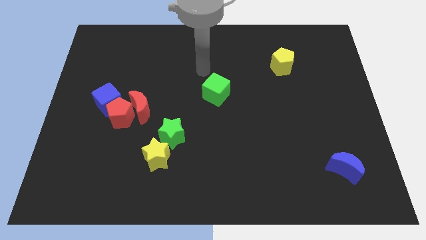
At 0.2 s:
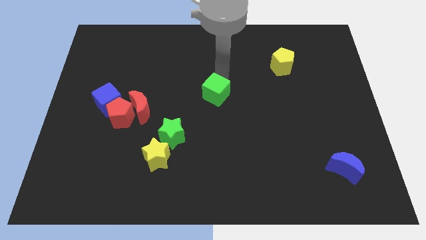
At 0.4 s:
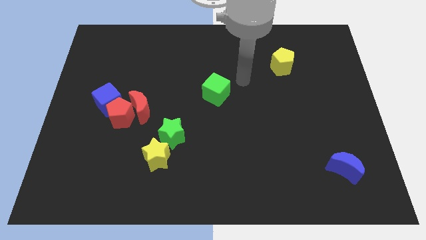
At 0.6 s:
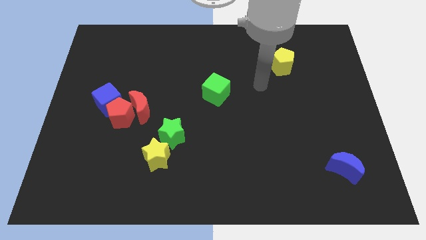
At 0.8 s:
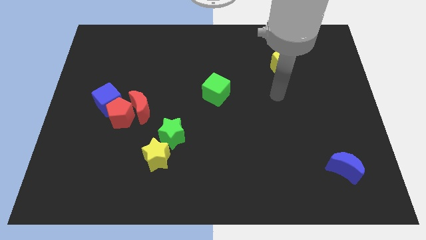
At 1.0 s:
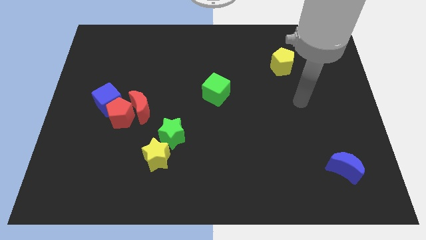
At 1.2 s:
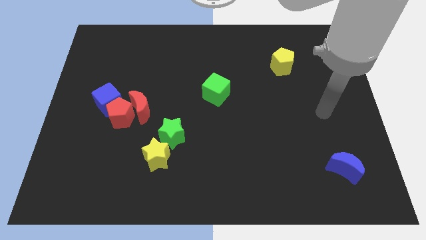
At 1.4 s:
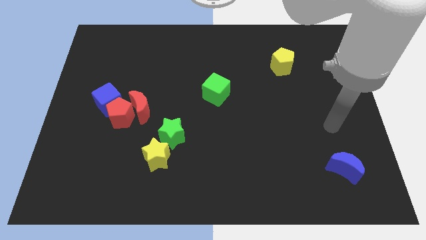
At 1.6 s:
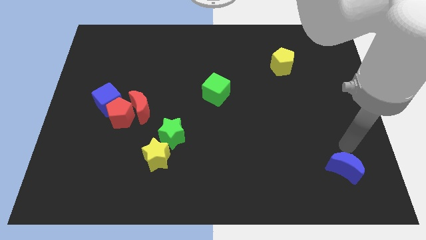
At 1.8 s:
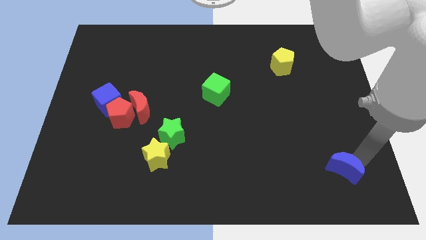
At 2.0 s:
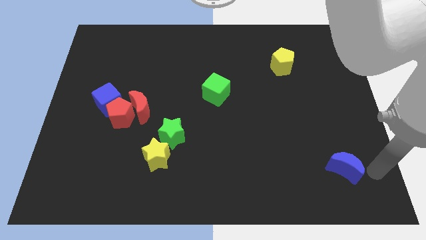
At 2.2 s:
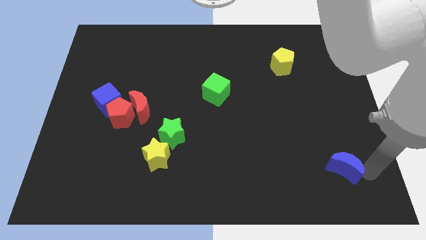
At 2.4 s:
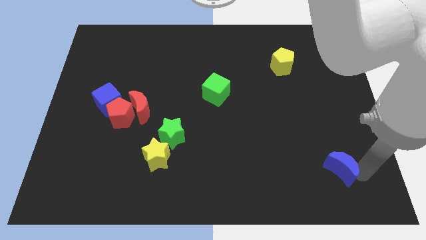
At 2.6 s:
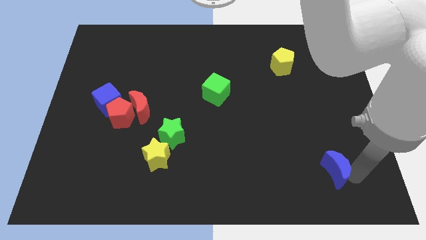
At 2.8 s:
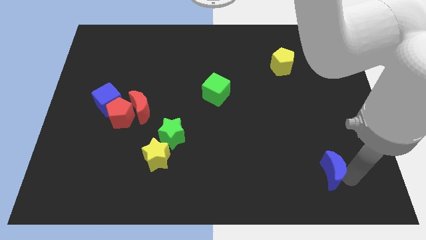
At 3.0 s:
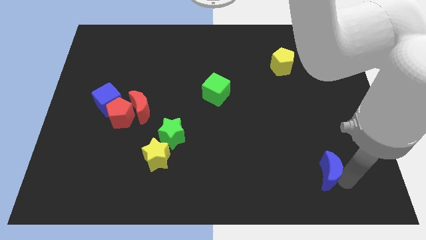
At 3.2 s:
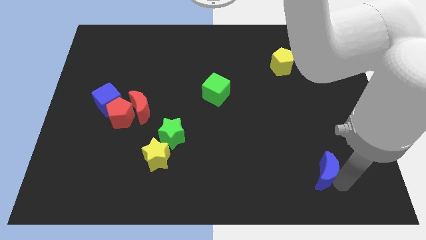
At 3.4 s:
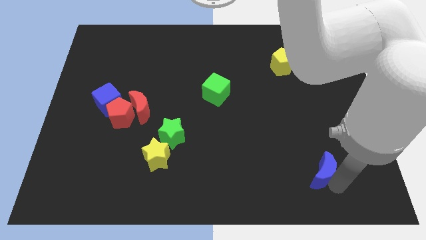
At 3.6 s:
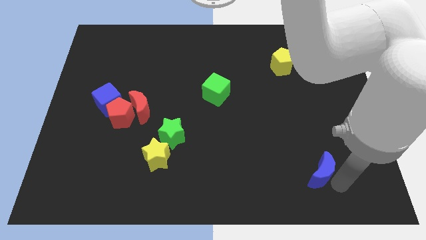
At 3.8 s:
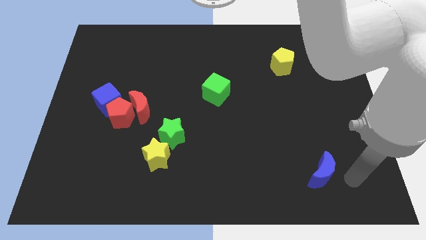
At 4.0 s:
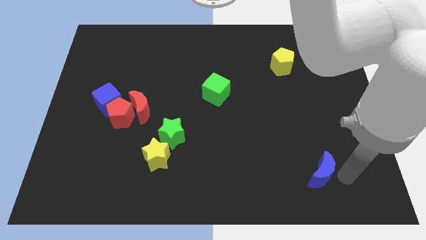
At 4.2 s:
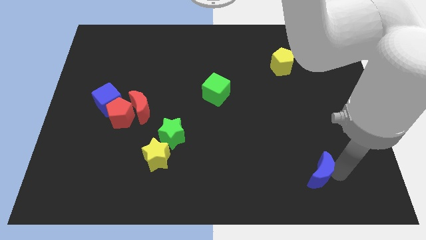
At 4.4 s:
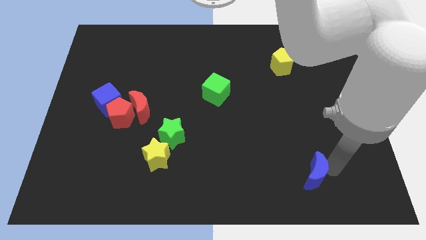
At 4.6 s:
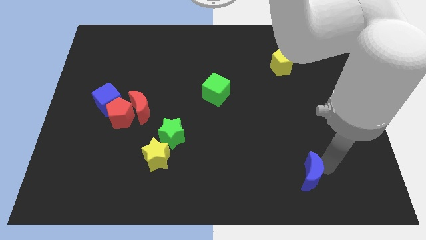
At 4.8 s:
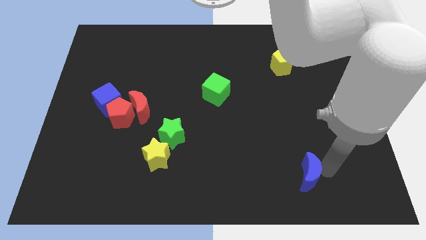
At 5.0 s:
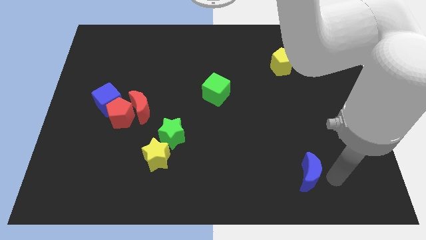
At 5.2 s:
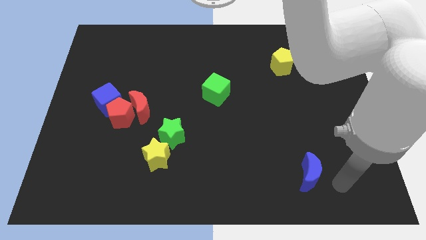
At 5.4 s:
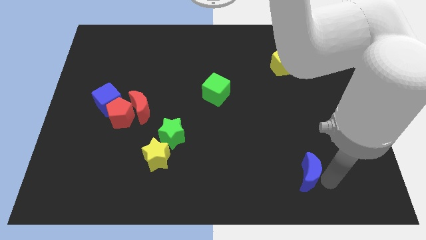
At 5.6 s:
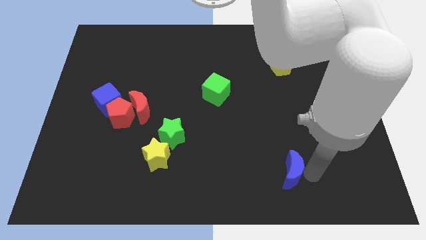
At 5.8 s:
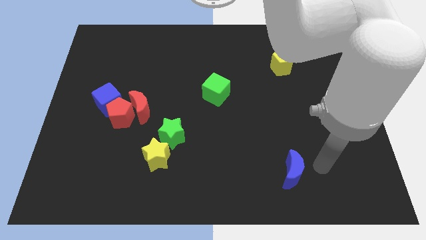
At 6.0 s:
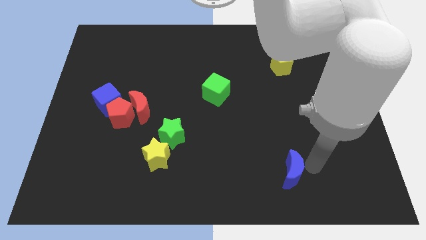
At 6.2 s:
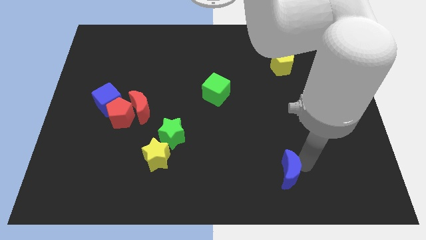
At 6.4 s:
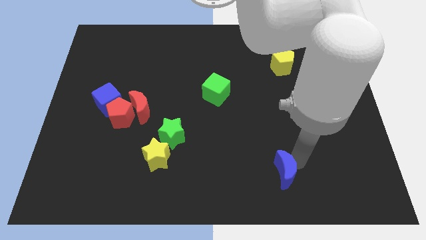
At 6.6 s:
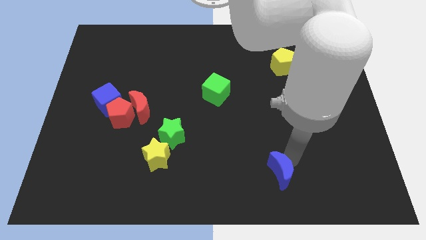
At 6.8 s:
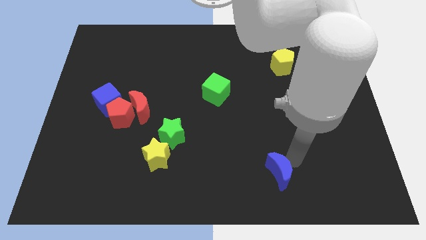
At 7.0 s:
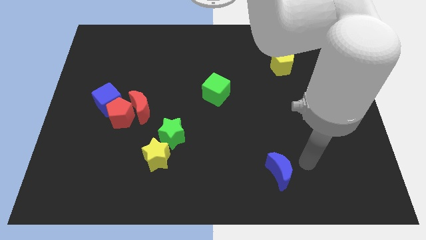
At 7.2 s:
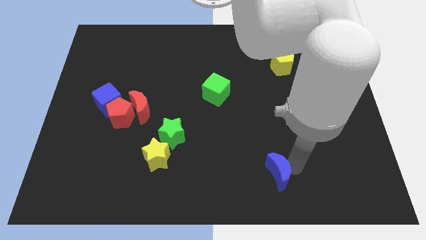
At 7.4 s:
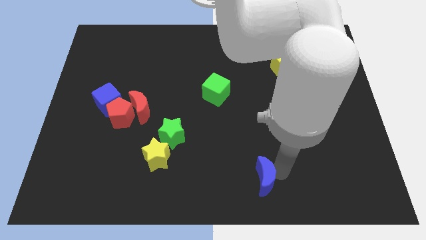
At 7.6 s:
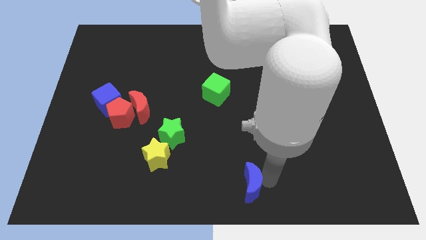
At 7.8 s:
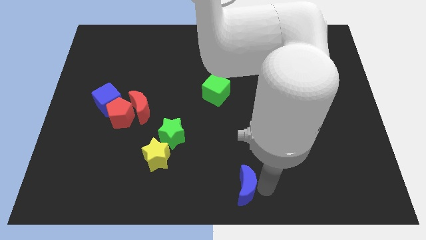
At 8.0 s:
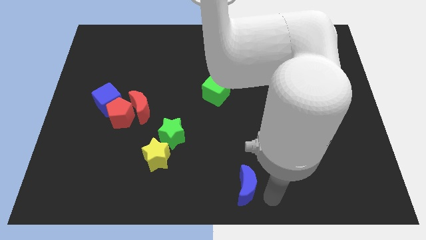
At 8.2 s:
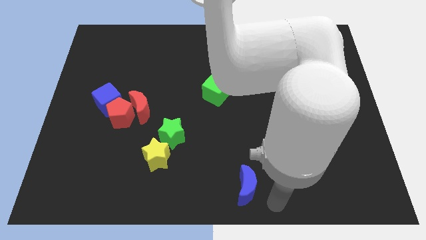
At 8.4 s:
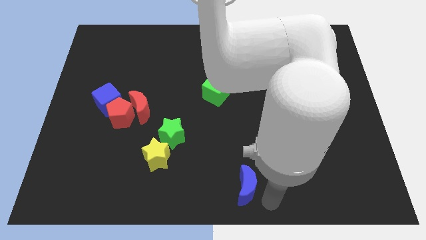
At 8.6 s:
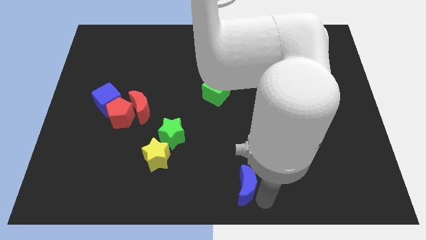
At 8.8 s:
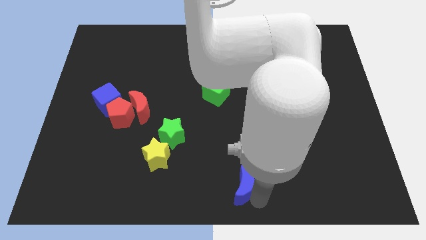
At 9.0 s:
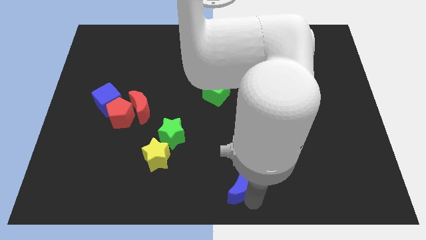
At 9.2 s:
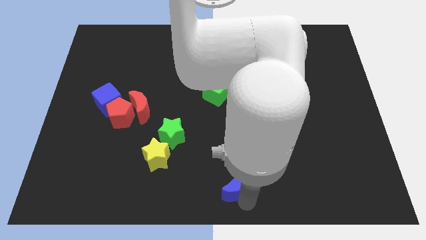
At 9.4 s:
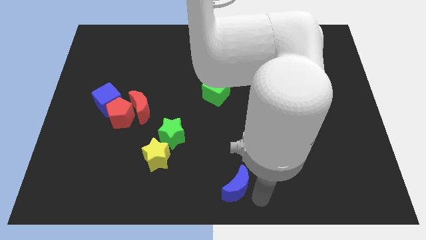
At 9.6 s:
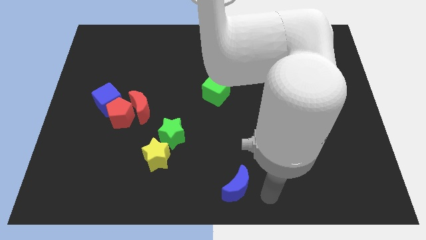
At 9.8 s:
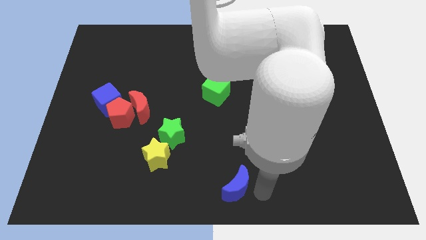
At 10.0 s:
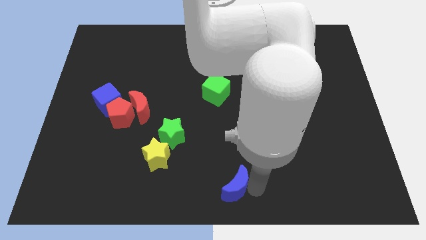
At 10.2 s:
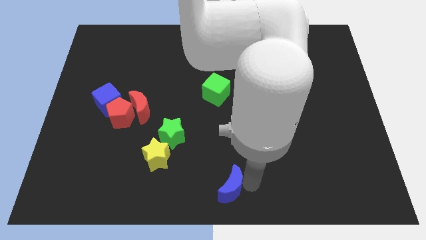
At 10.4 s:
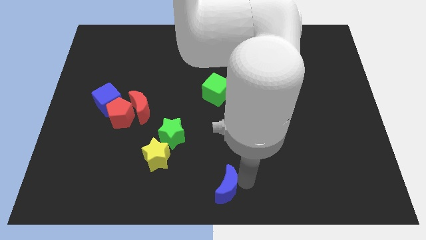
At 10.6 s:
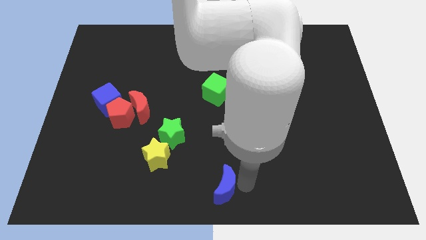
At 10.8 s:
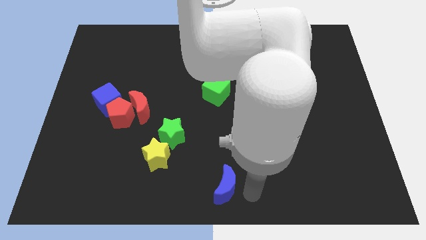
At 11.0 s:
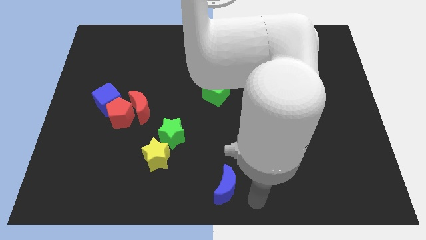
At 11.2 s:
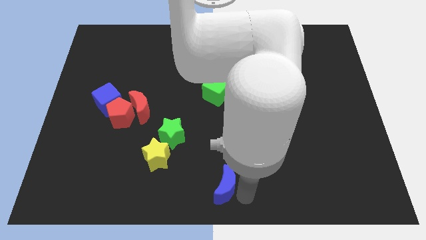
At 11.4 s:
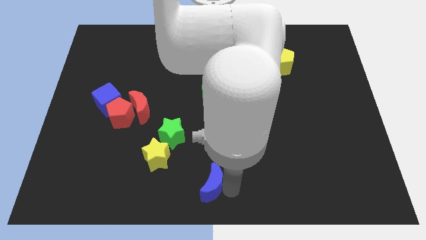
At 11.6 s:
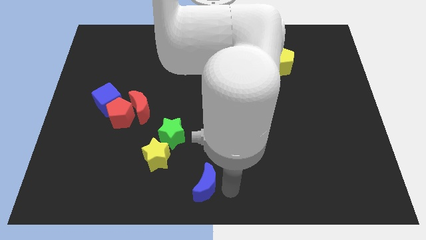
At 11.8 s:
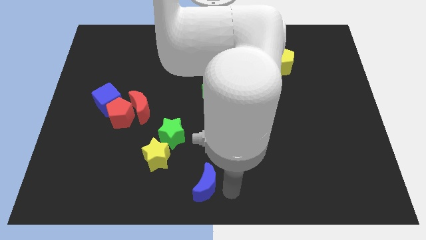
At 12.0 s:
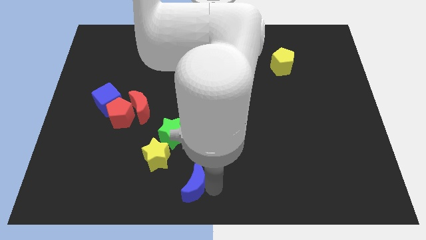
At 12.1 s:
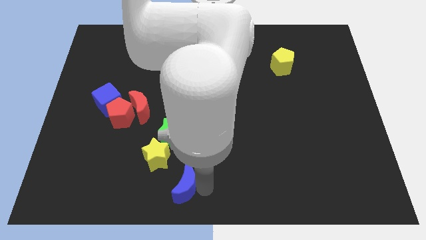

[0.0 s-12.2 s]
put the blue moon to the bottom of the green star

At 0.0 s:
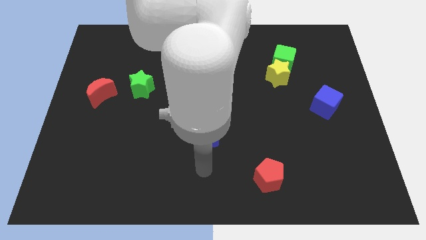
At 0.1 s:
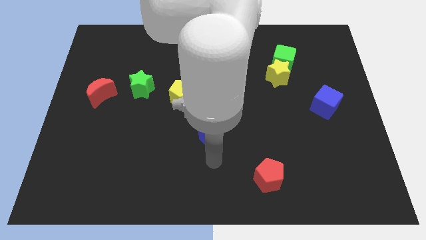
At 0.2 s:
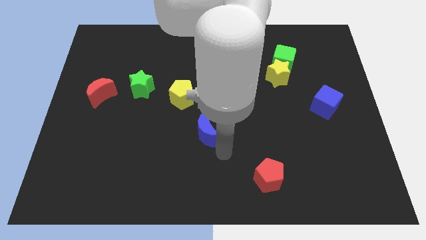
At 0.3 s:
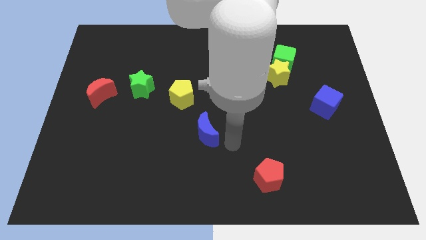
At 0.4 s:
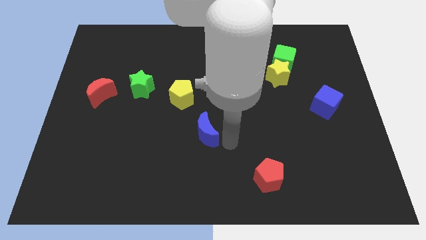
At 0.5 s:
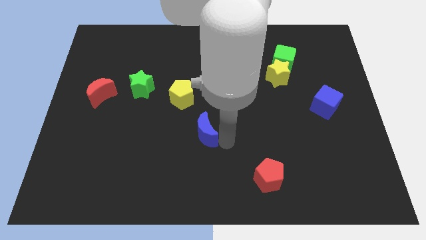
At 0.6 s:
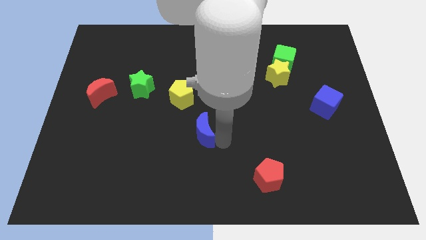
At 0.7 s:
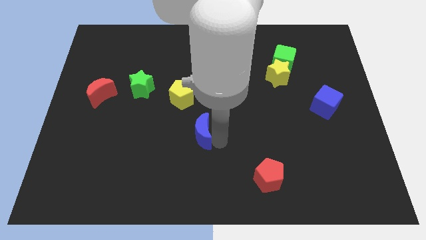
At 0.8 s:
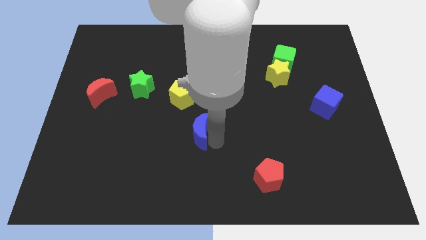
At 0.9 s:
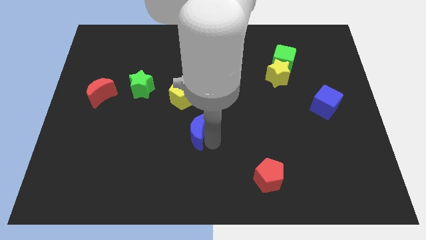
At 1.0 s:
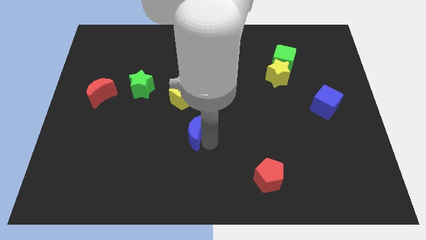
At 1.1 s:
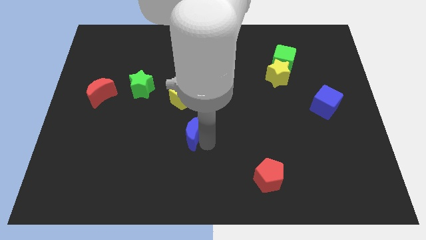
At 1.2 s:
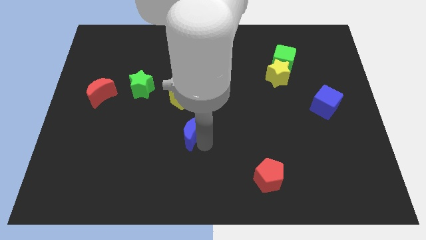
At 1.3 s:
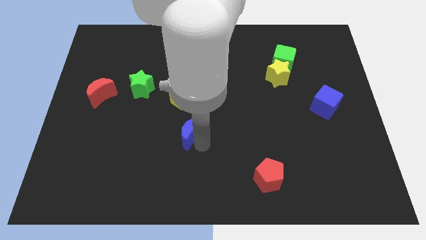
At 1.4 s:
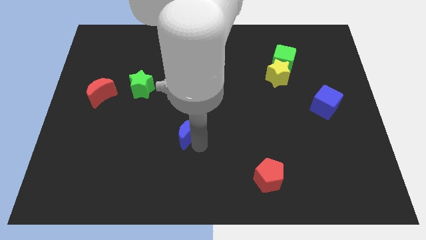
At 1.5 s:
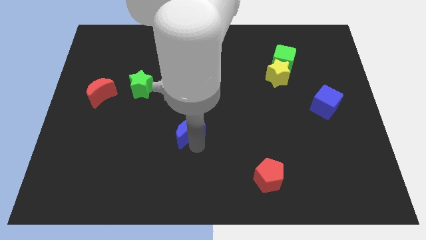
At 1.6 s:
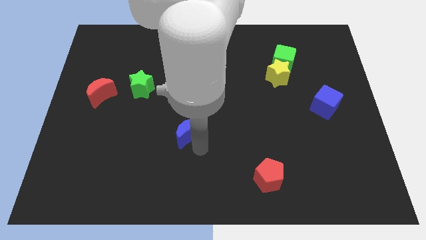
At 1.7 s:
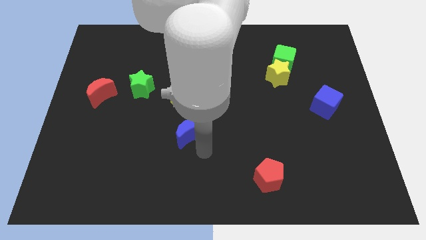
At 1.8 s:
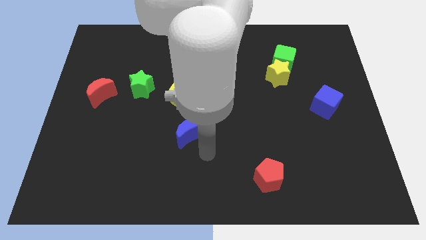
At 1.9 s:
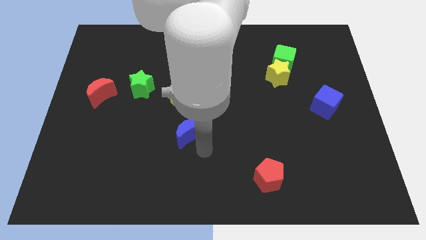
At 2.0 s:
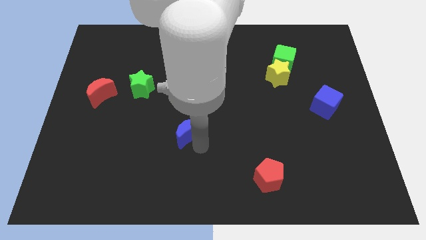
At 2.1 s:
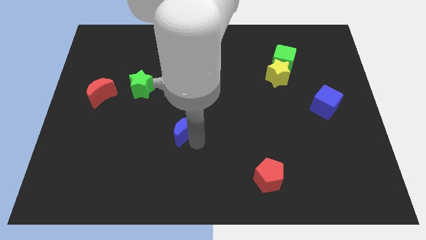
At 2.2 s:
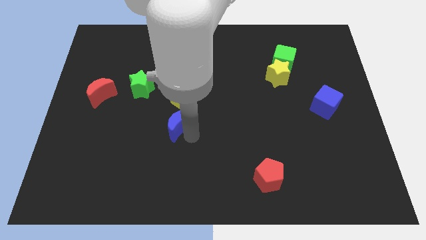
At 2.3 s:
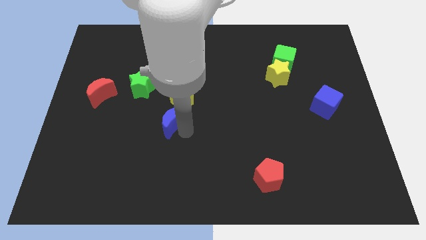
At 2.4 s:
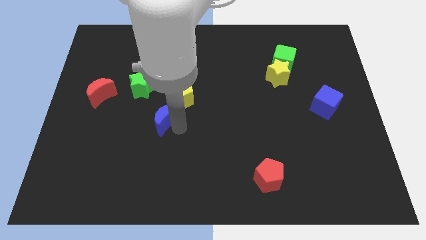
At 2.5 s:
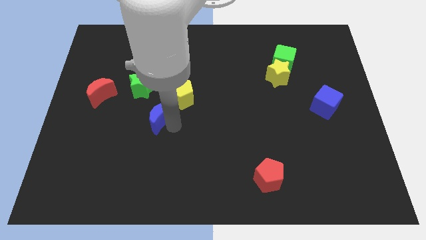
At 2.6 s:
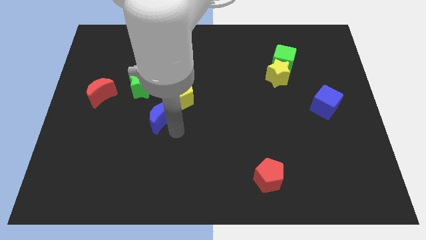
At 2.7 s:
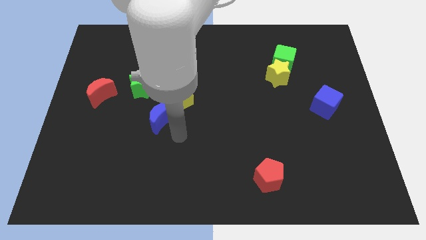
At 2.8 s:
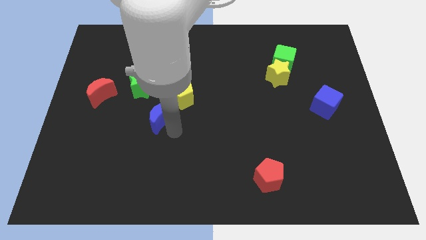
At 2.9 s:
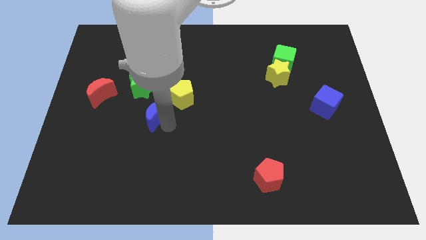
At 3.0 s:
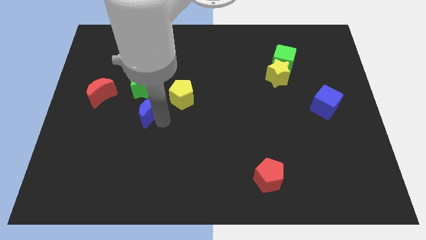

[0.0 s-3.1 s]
put the blue moon to the left side of the yellow pentagon
